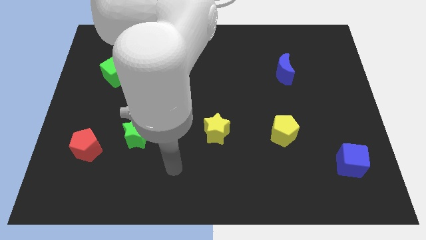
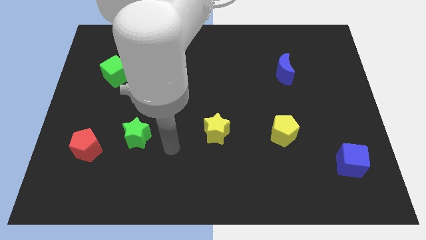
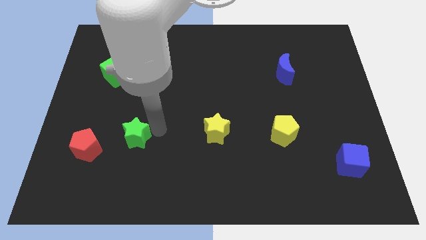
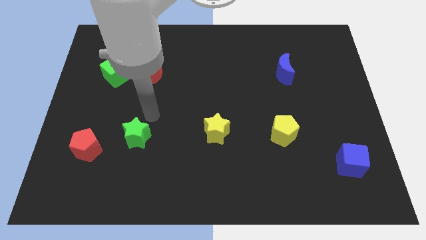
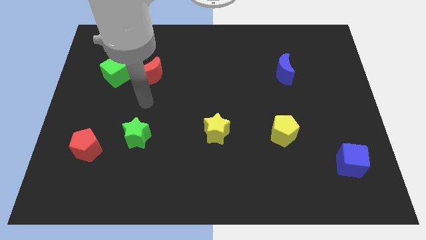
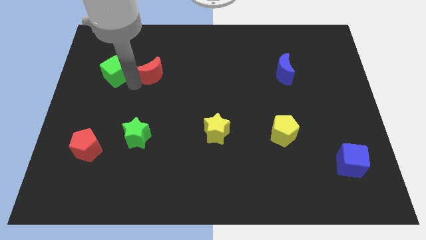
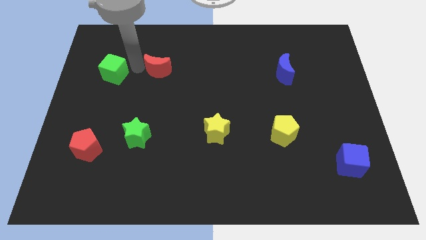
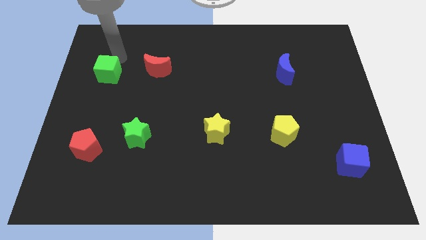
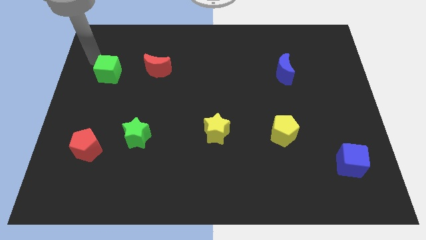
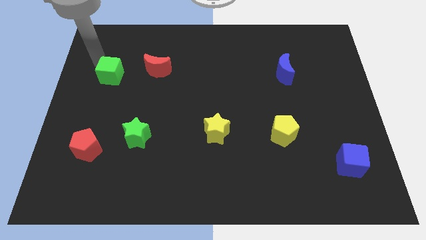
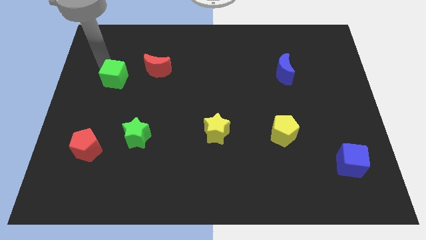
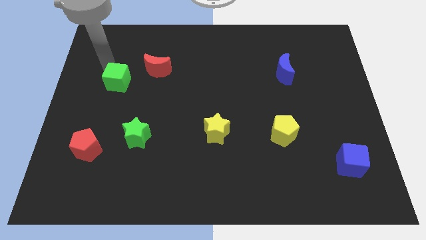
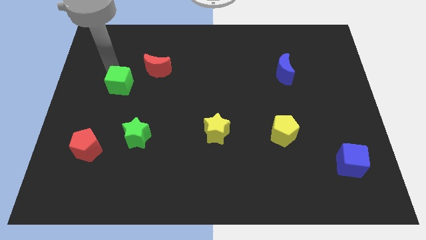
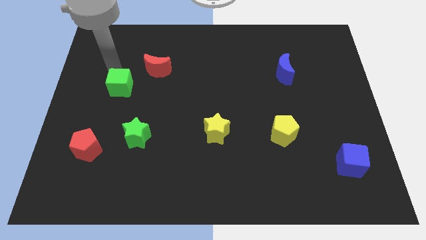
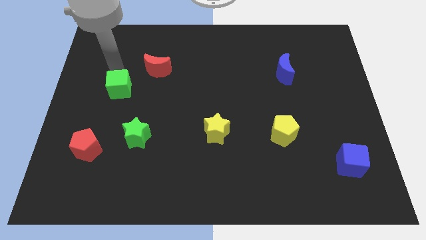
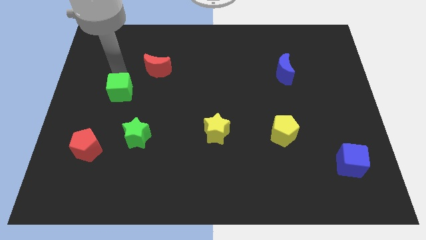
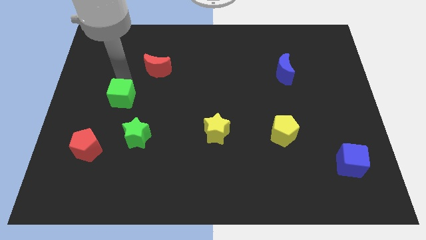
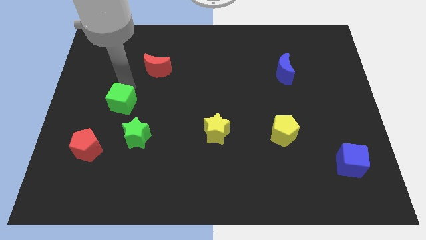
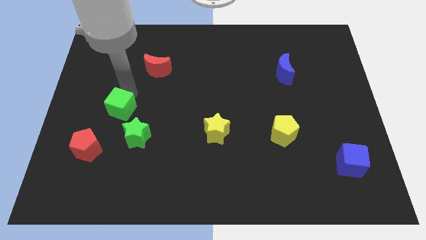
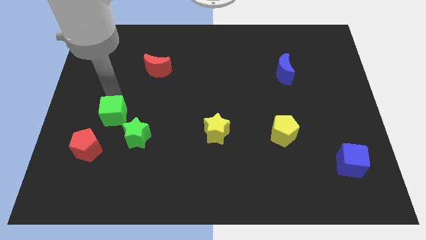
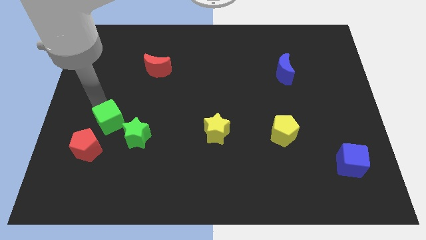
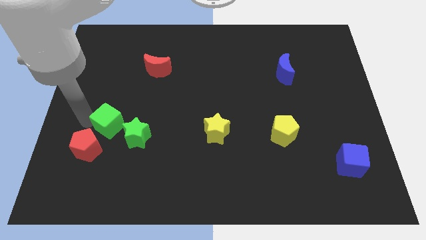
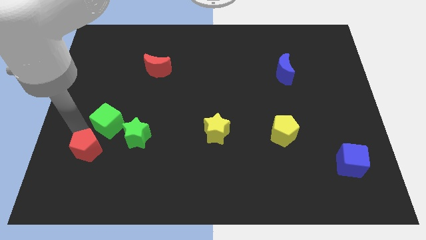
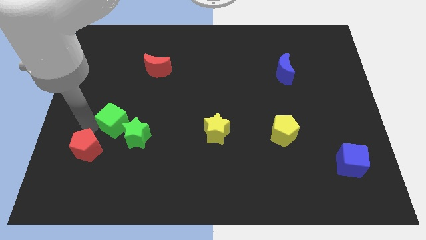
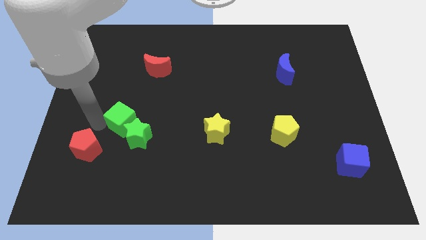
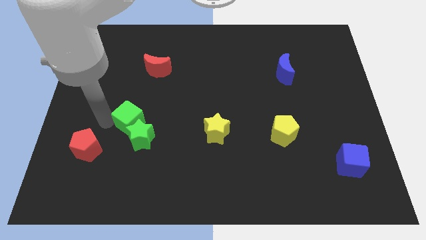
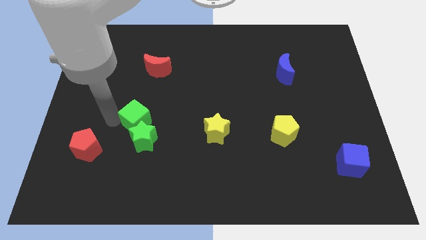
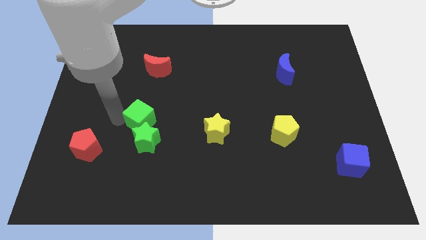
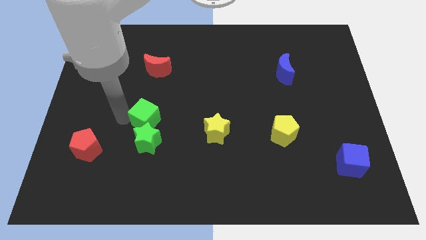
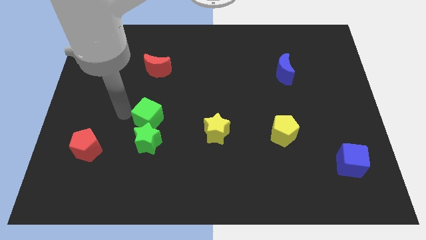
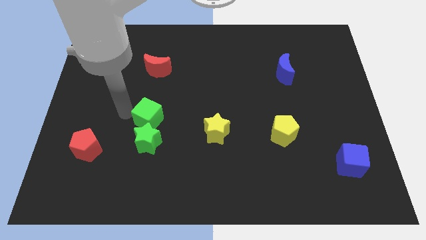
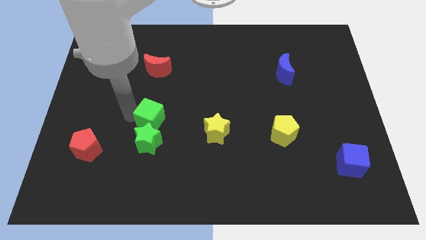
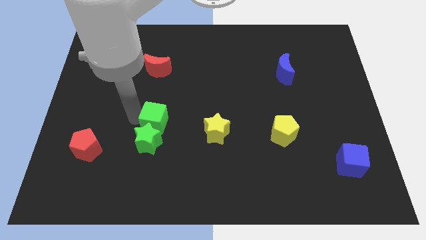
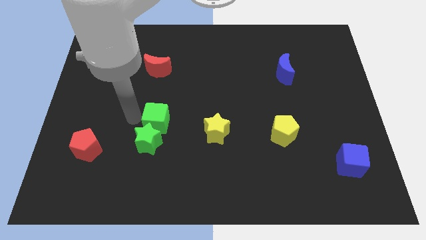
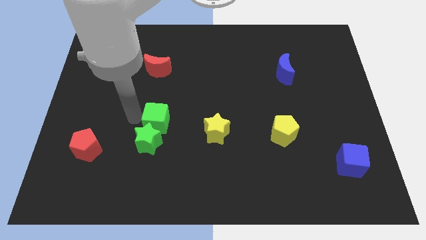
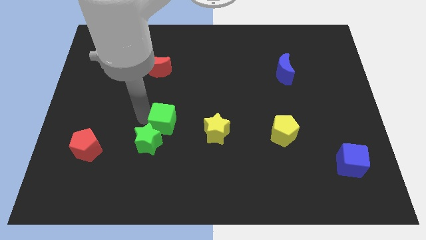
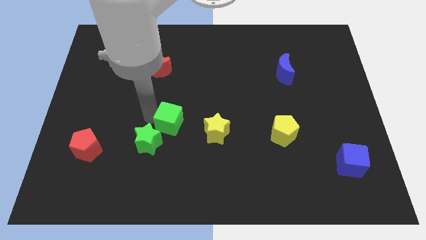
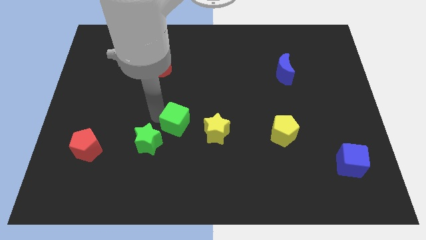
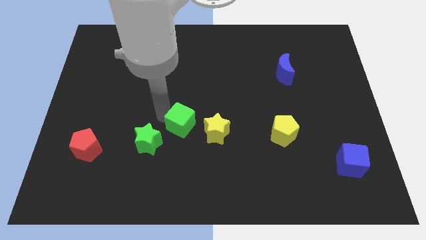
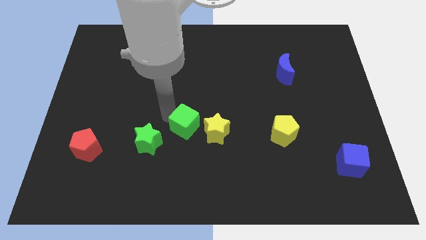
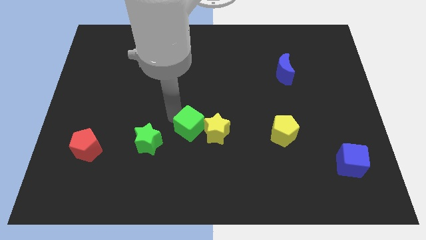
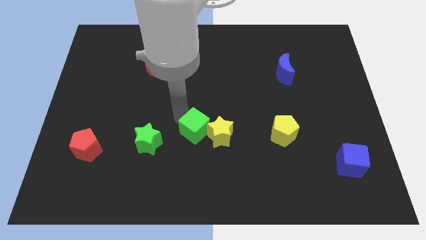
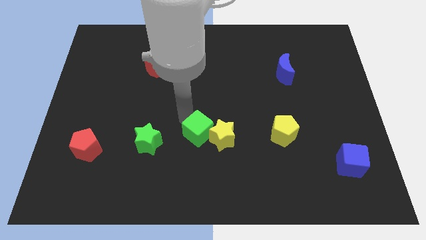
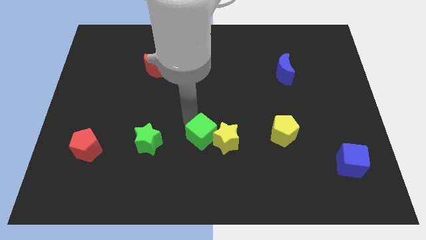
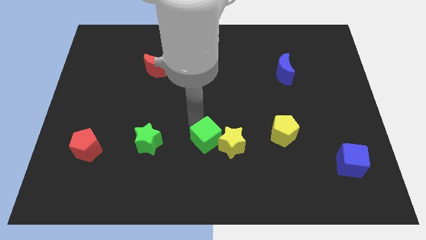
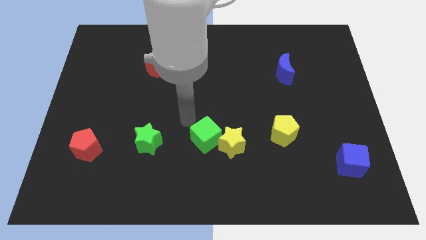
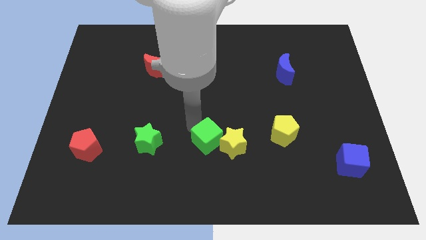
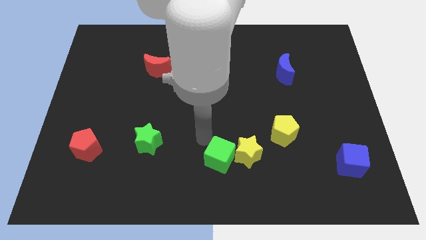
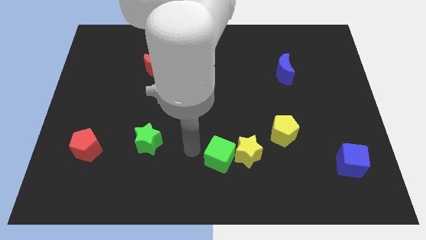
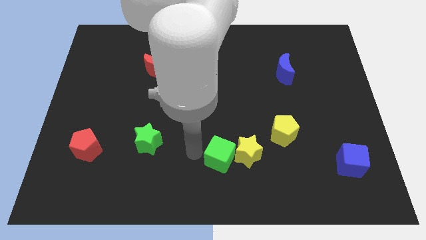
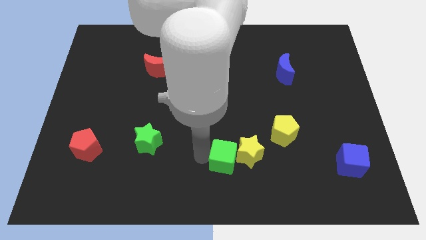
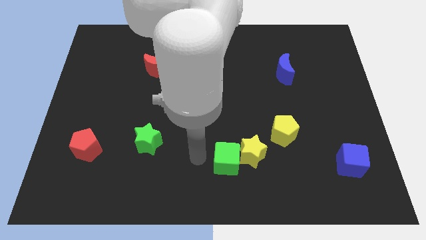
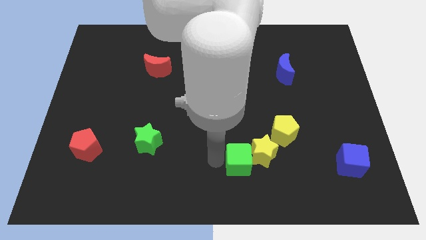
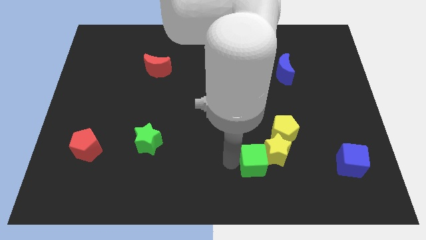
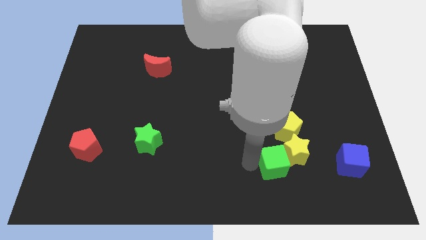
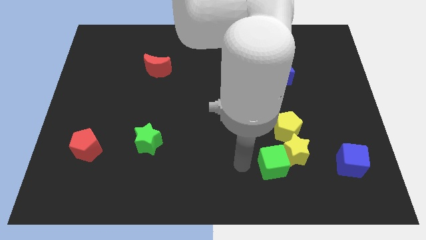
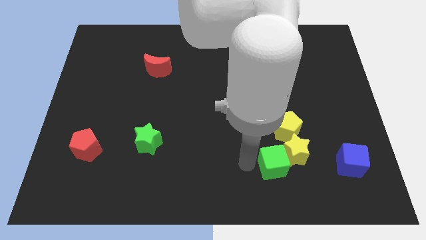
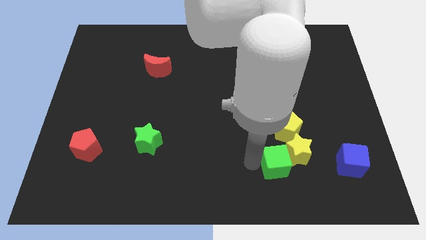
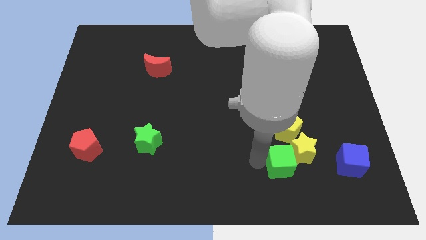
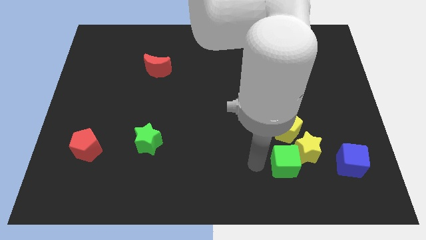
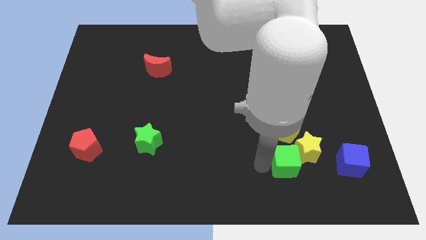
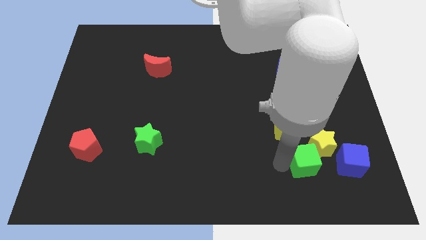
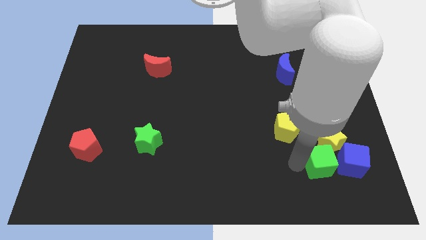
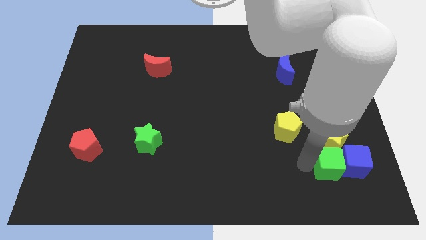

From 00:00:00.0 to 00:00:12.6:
slide the green cube to the blue cube
